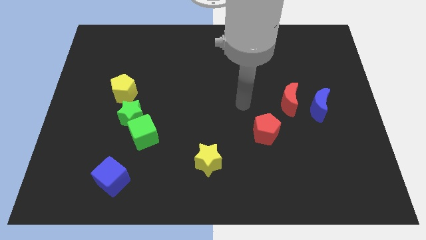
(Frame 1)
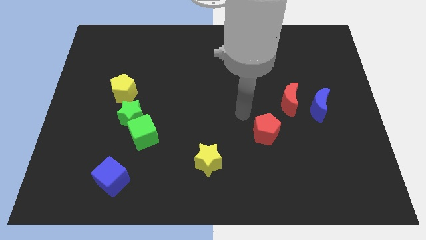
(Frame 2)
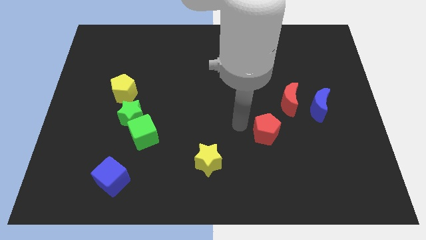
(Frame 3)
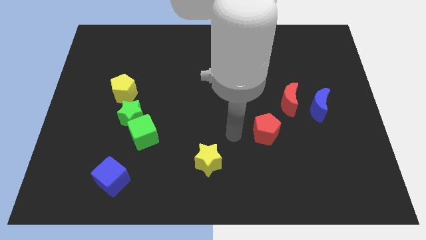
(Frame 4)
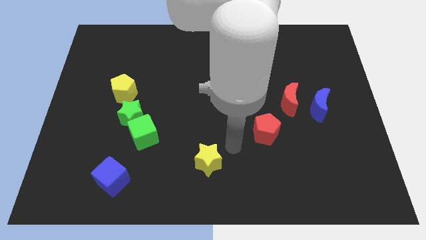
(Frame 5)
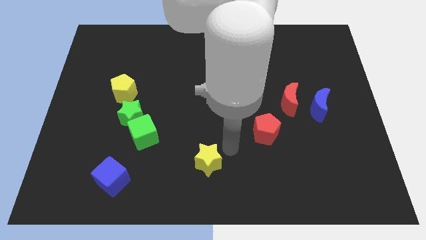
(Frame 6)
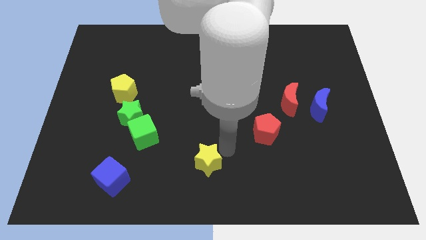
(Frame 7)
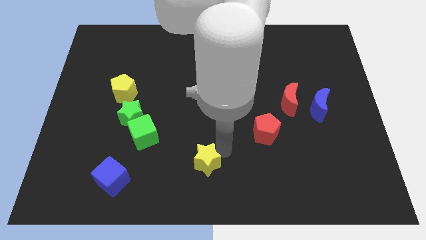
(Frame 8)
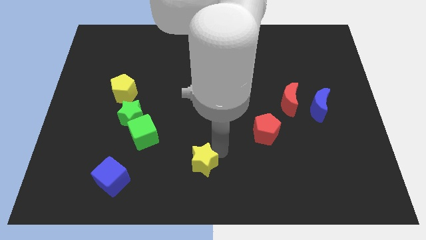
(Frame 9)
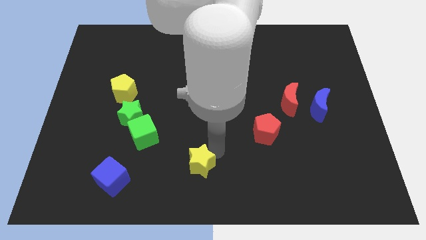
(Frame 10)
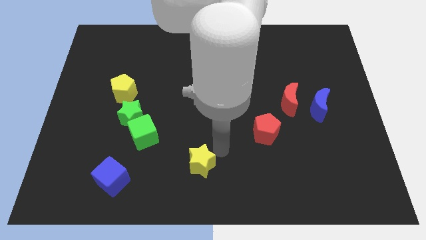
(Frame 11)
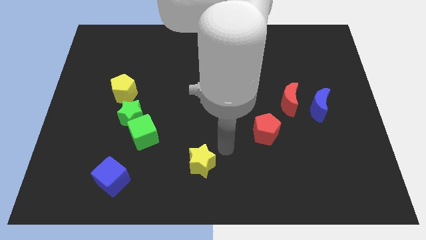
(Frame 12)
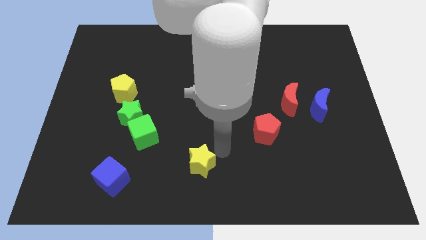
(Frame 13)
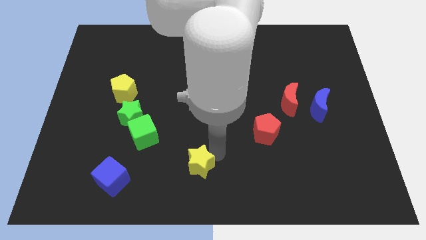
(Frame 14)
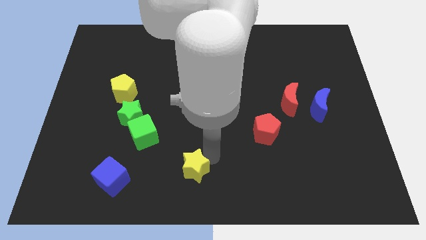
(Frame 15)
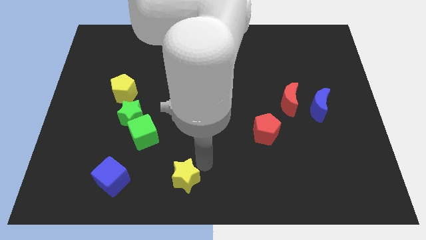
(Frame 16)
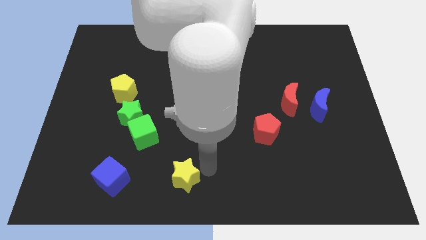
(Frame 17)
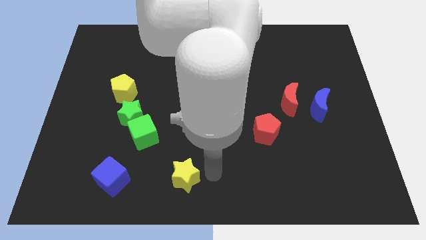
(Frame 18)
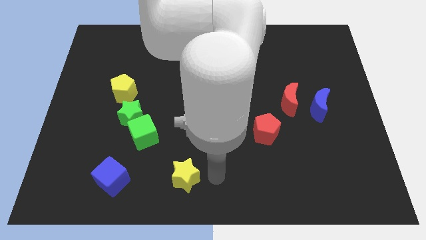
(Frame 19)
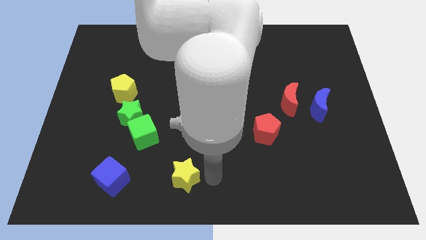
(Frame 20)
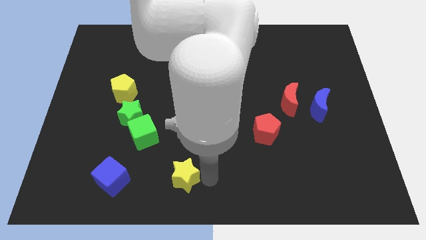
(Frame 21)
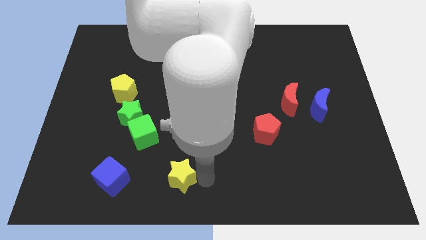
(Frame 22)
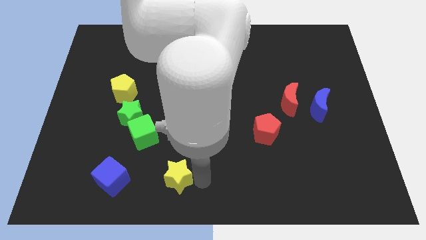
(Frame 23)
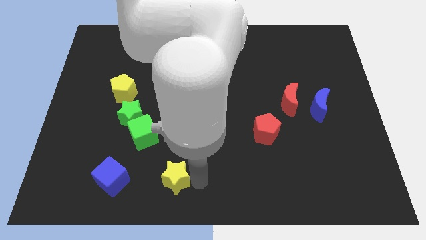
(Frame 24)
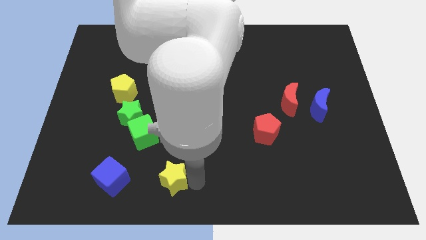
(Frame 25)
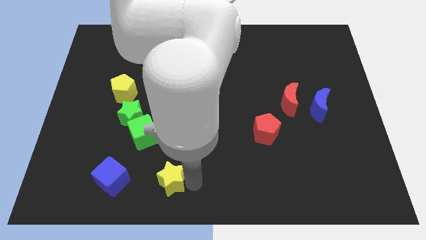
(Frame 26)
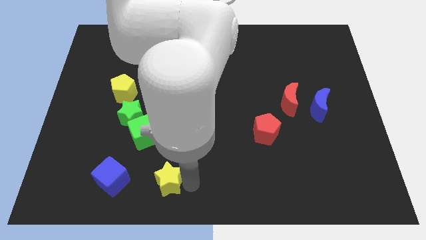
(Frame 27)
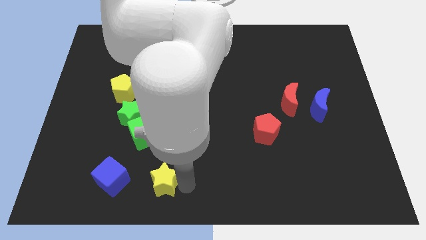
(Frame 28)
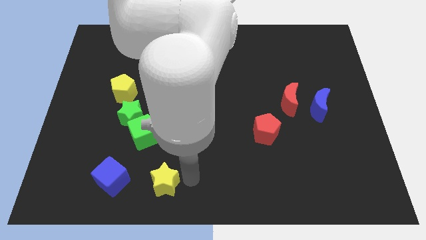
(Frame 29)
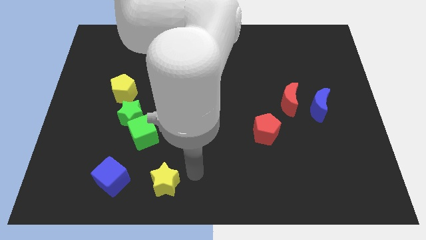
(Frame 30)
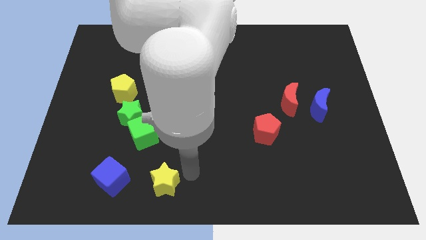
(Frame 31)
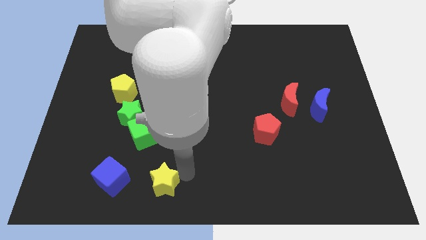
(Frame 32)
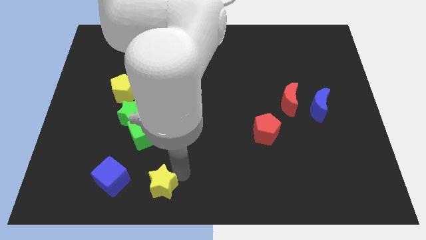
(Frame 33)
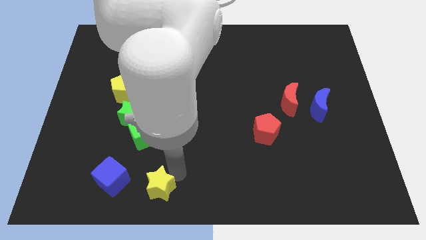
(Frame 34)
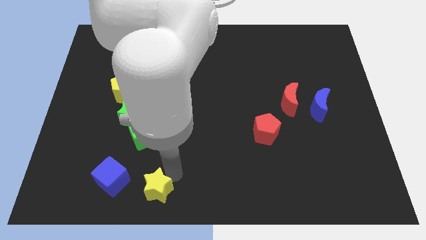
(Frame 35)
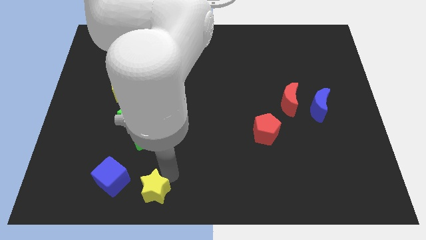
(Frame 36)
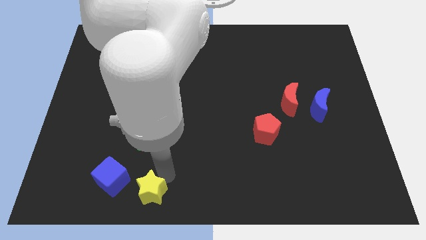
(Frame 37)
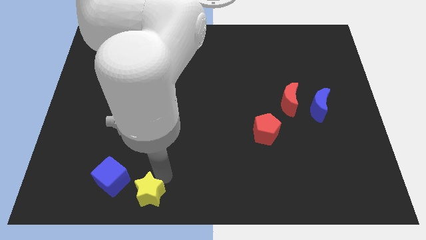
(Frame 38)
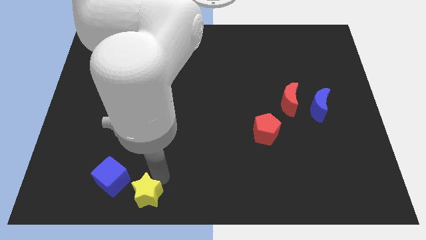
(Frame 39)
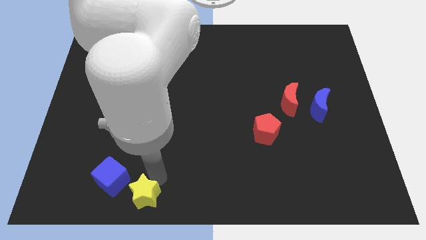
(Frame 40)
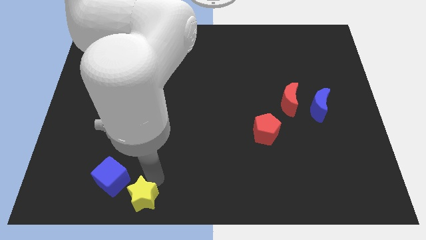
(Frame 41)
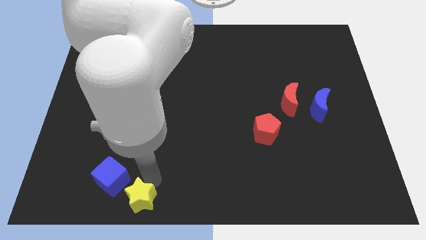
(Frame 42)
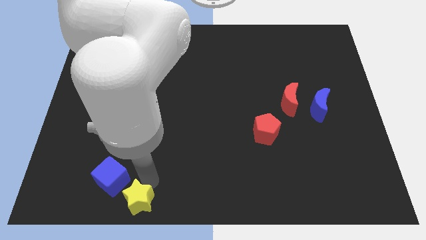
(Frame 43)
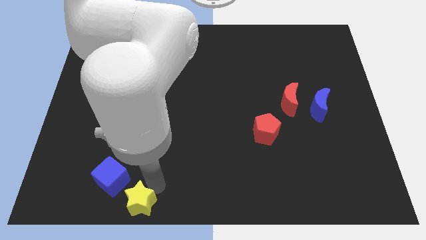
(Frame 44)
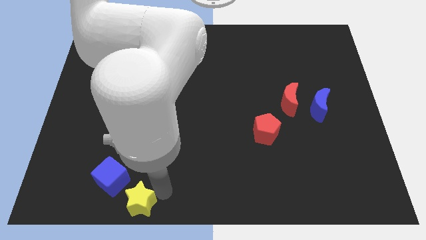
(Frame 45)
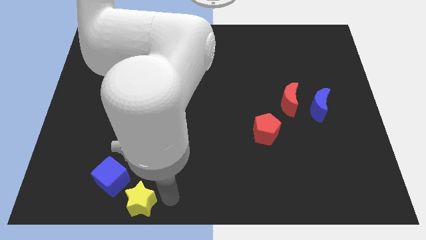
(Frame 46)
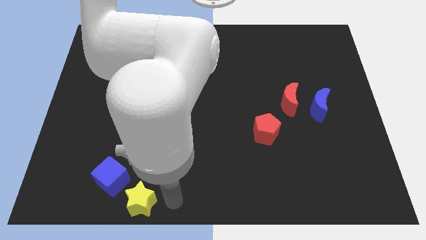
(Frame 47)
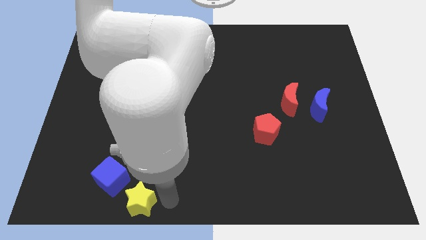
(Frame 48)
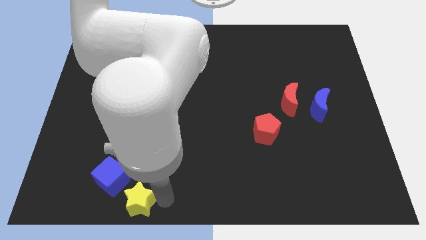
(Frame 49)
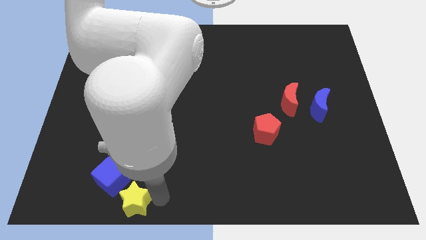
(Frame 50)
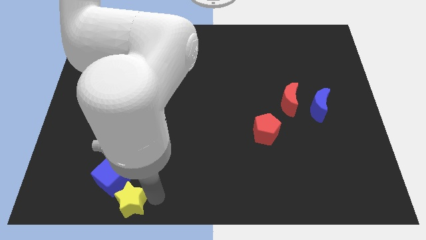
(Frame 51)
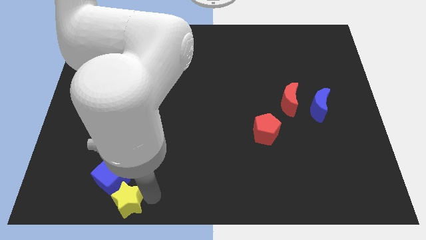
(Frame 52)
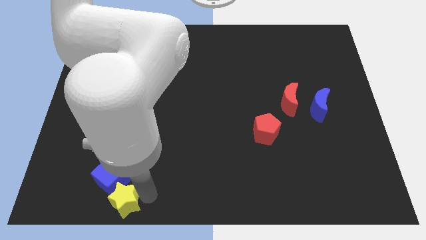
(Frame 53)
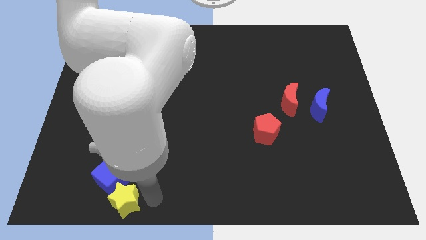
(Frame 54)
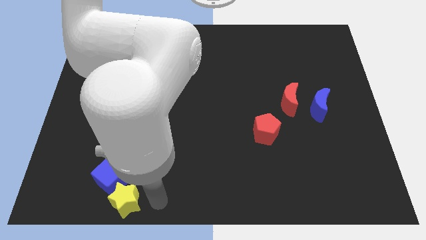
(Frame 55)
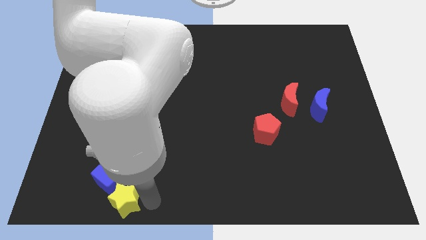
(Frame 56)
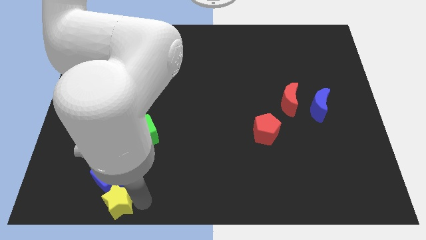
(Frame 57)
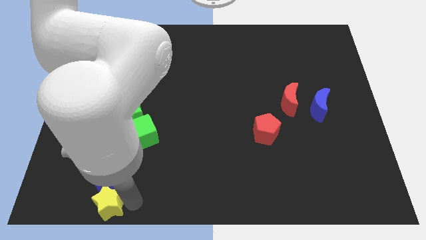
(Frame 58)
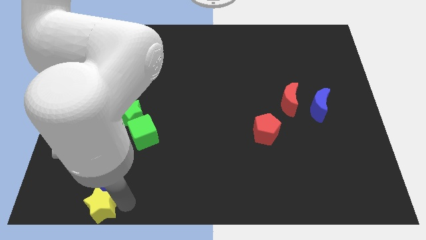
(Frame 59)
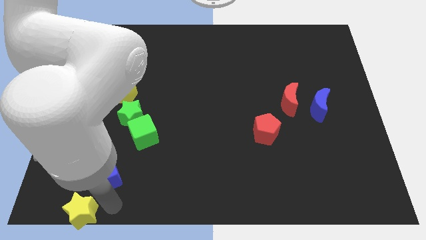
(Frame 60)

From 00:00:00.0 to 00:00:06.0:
push the yellow star to the bottom left

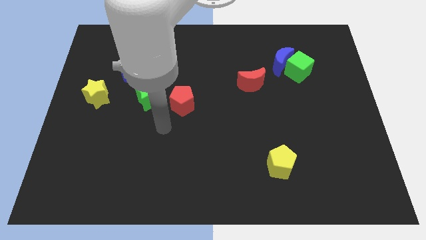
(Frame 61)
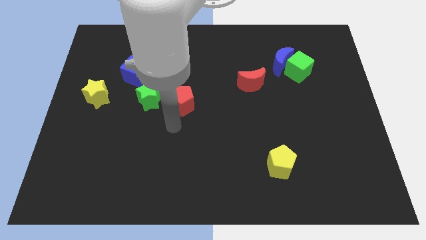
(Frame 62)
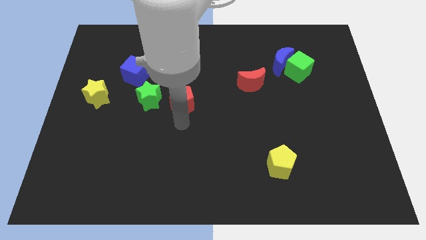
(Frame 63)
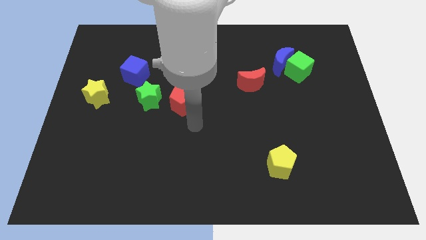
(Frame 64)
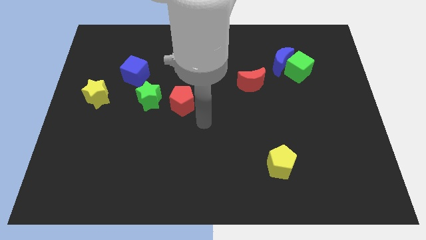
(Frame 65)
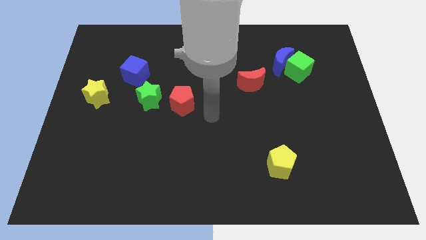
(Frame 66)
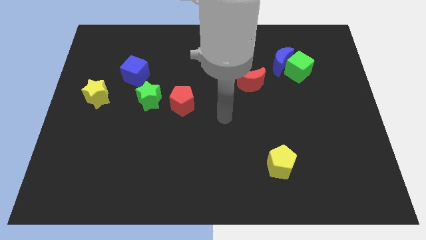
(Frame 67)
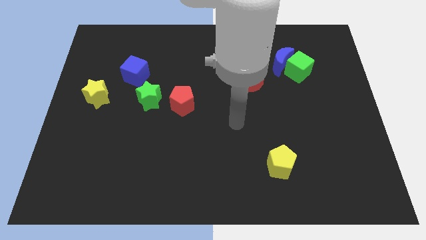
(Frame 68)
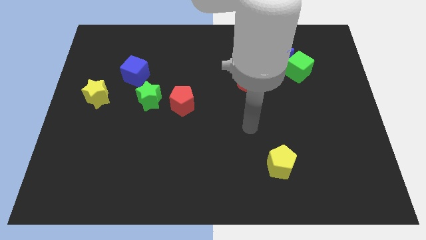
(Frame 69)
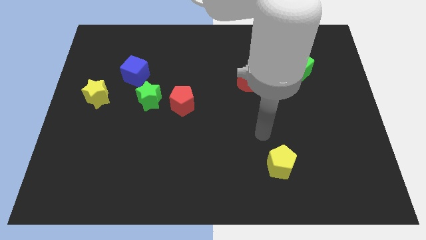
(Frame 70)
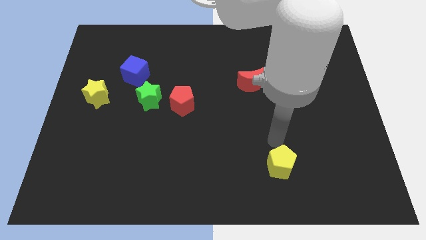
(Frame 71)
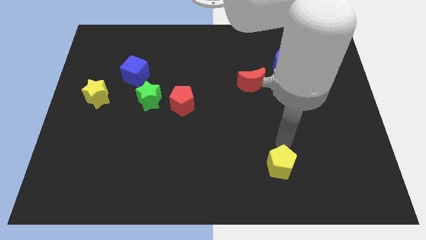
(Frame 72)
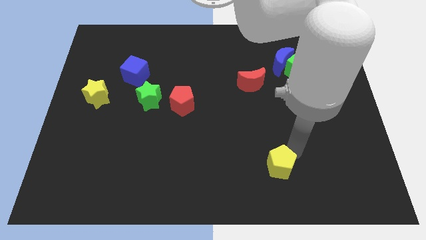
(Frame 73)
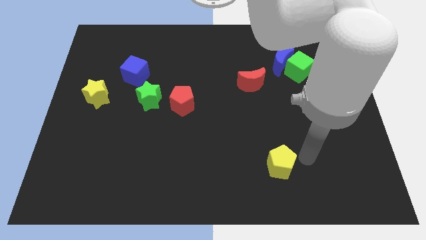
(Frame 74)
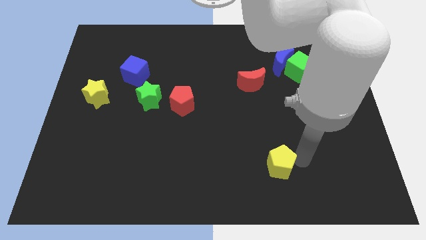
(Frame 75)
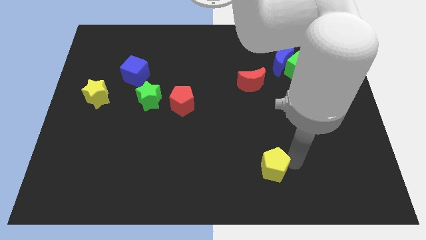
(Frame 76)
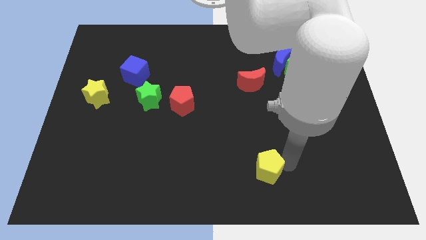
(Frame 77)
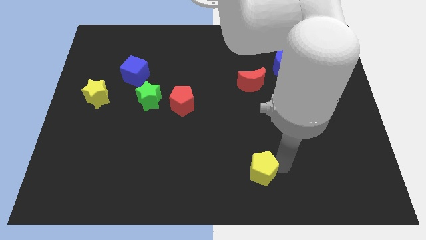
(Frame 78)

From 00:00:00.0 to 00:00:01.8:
slide the yellow pentagon to the bottom side
